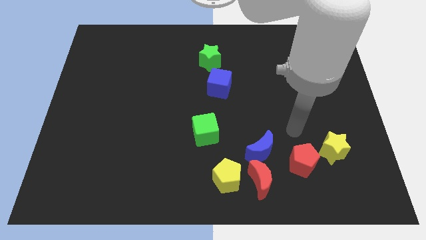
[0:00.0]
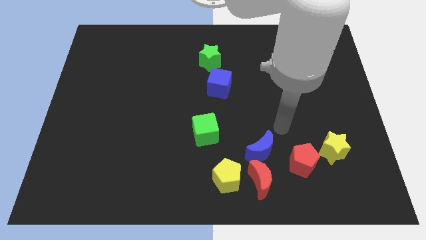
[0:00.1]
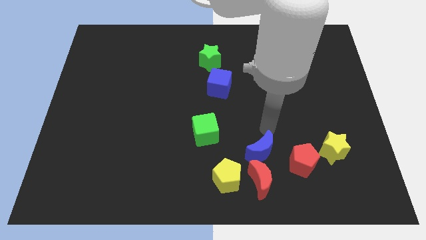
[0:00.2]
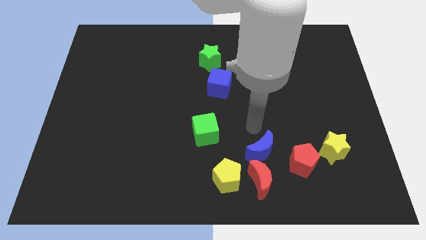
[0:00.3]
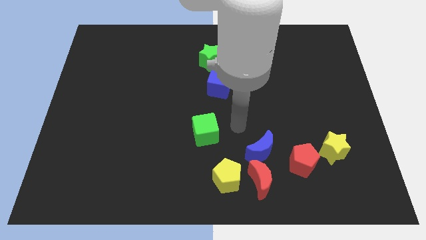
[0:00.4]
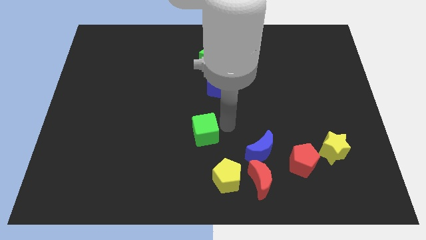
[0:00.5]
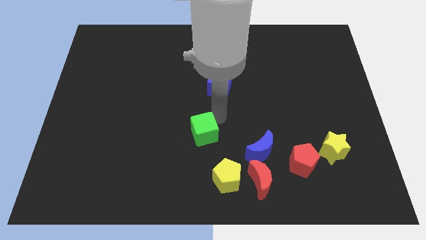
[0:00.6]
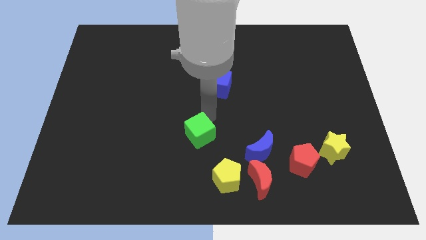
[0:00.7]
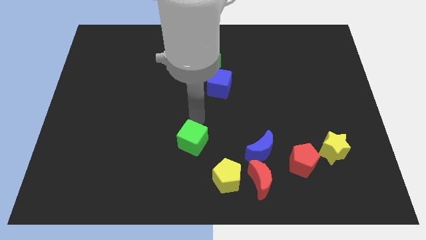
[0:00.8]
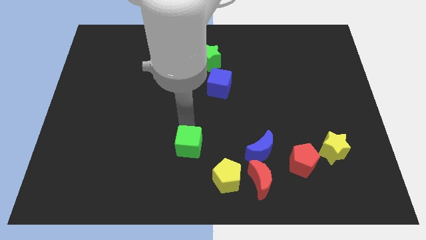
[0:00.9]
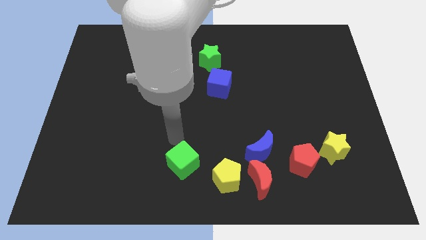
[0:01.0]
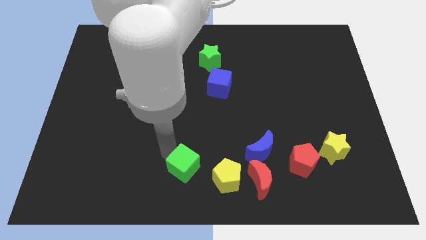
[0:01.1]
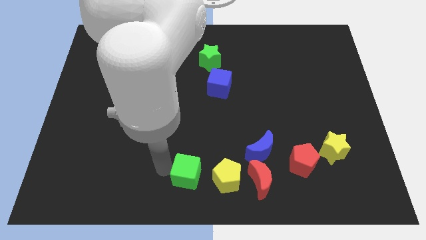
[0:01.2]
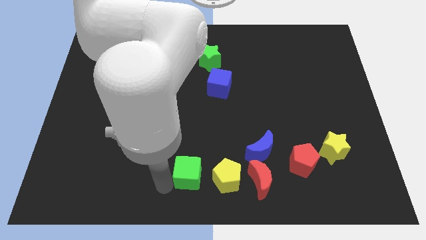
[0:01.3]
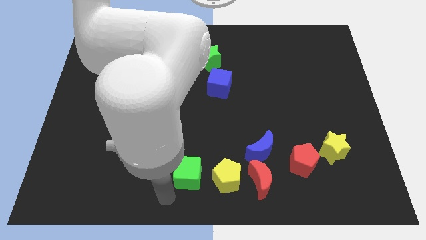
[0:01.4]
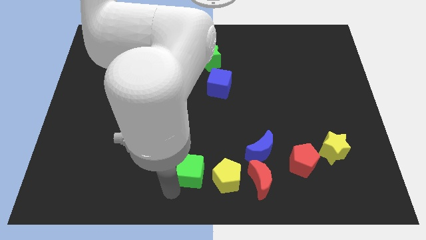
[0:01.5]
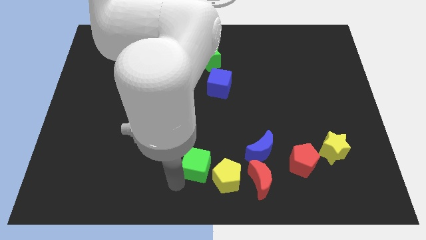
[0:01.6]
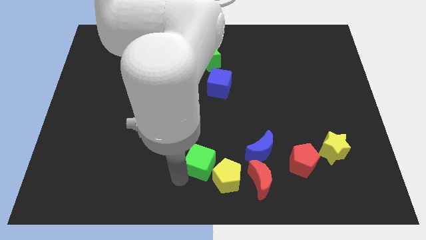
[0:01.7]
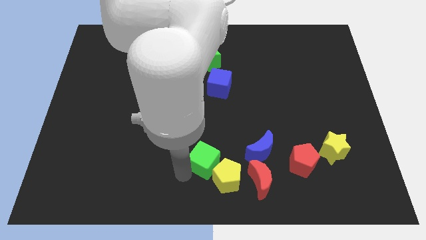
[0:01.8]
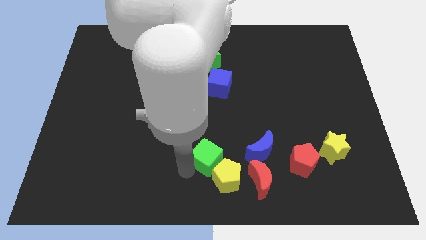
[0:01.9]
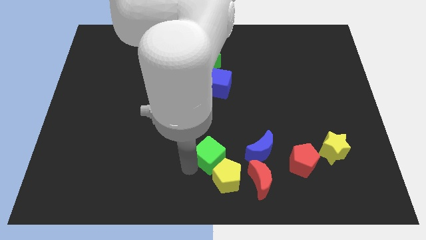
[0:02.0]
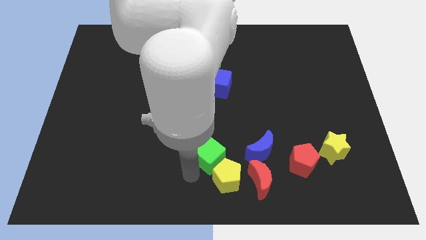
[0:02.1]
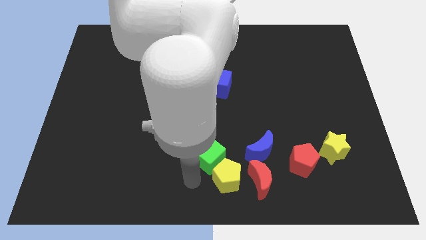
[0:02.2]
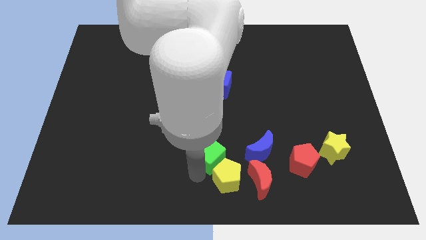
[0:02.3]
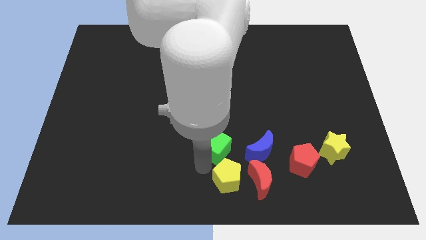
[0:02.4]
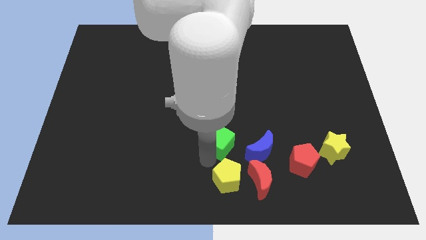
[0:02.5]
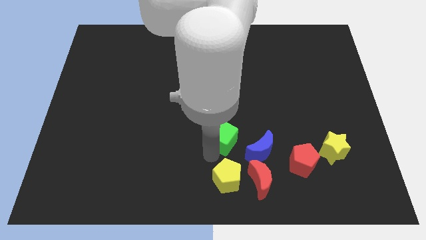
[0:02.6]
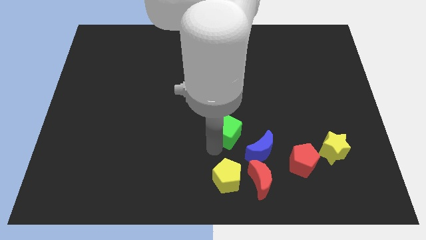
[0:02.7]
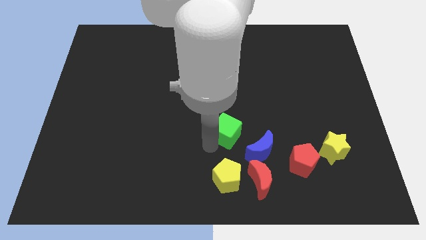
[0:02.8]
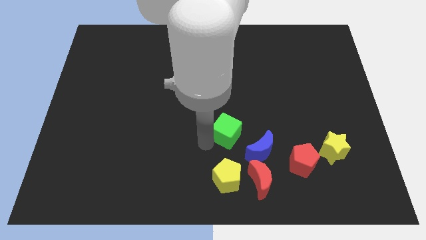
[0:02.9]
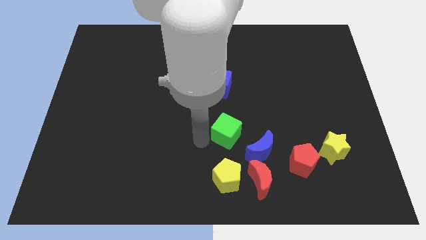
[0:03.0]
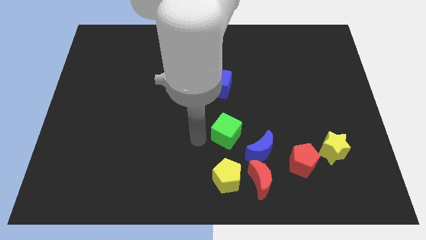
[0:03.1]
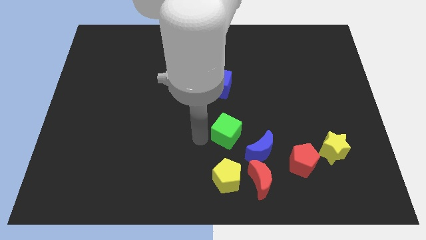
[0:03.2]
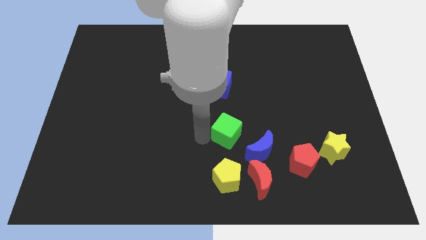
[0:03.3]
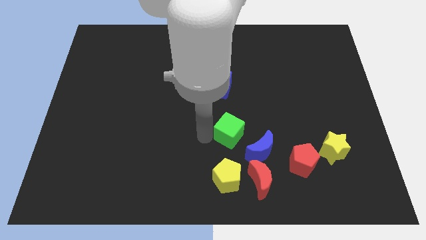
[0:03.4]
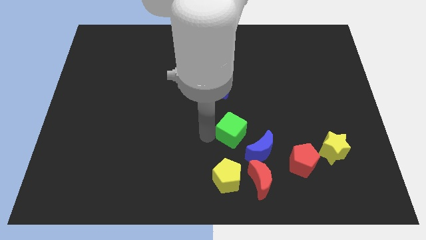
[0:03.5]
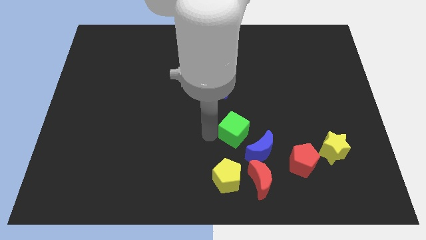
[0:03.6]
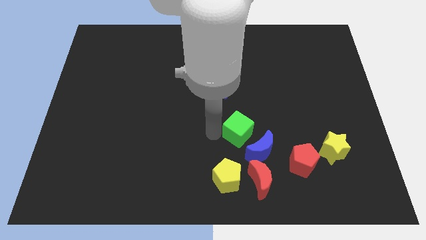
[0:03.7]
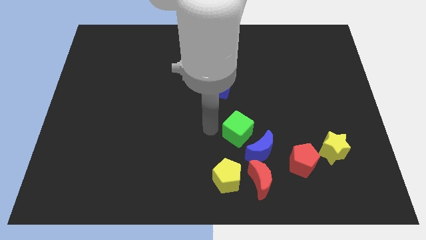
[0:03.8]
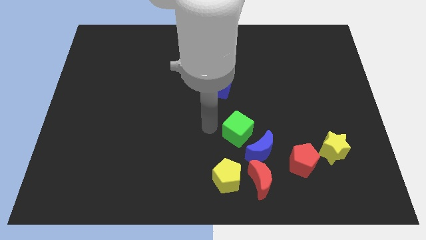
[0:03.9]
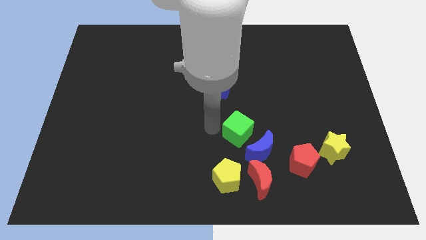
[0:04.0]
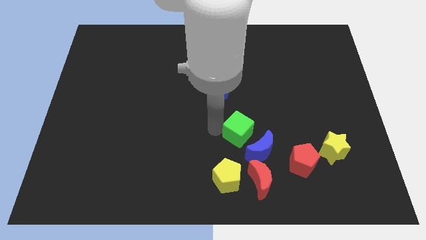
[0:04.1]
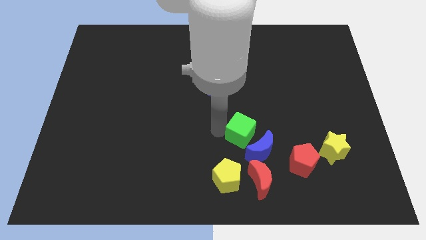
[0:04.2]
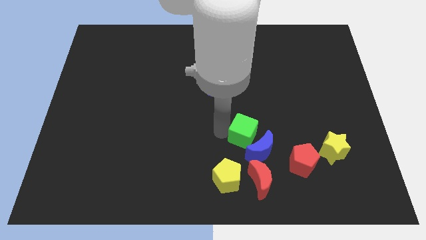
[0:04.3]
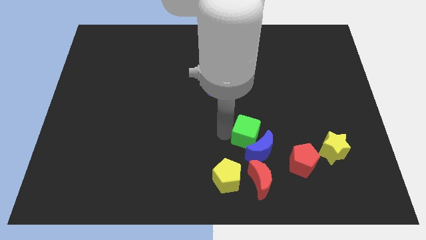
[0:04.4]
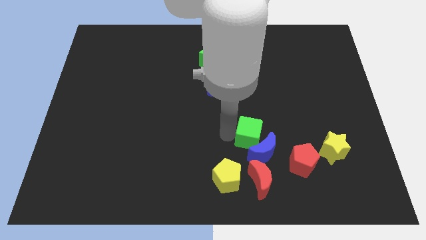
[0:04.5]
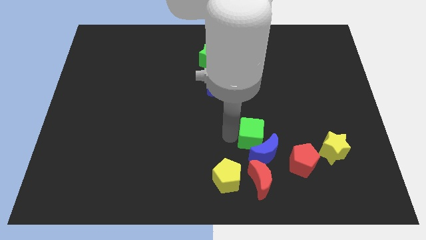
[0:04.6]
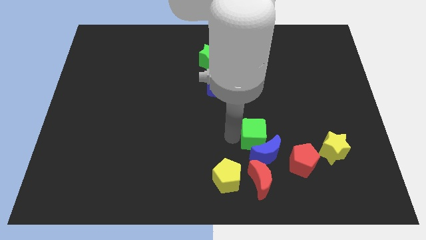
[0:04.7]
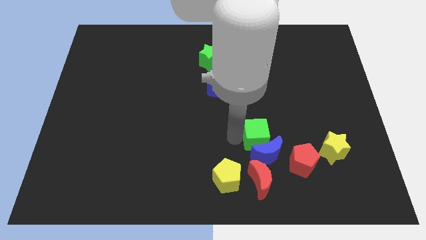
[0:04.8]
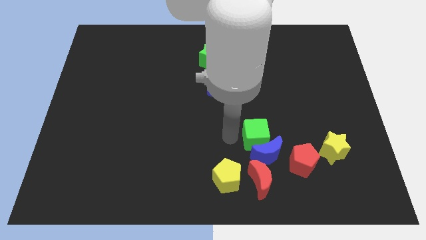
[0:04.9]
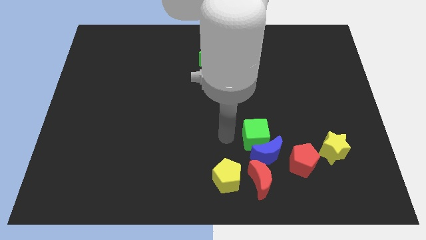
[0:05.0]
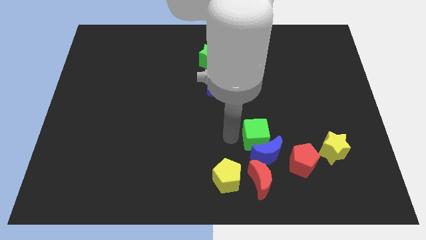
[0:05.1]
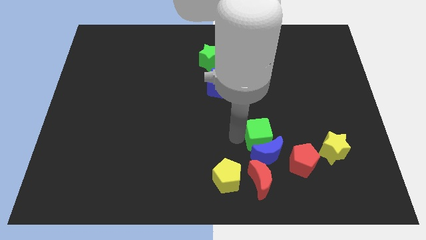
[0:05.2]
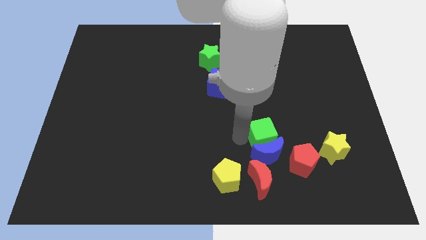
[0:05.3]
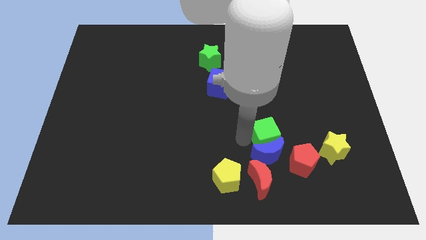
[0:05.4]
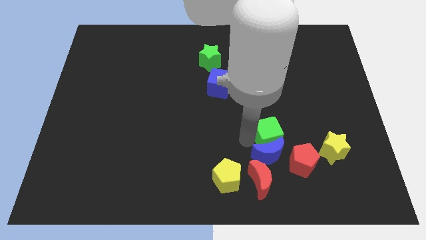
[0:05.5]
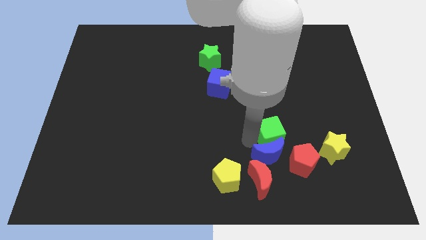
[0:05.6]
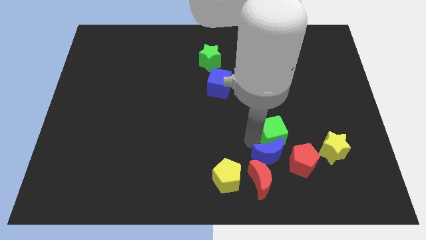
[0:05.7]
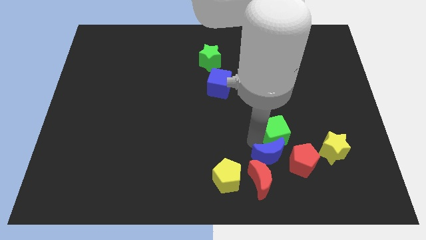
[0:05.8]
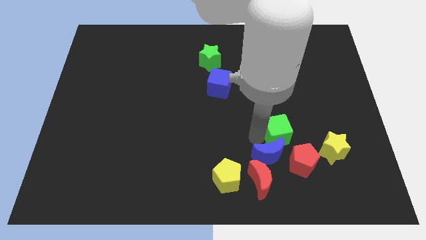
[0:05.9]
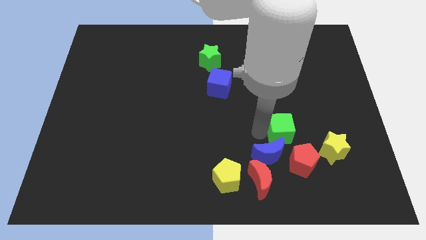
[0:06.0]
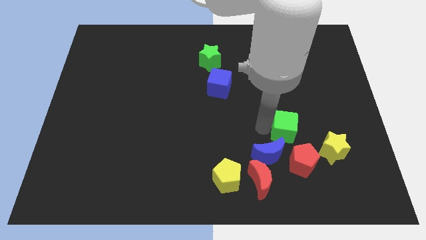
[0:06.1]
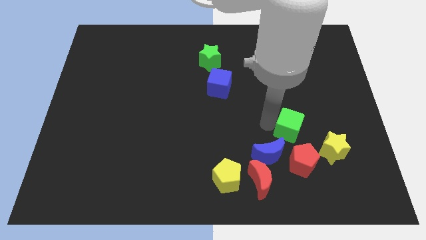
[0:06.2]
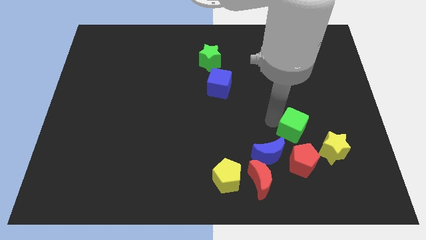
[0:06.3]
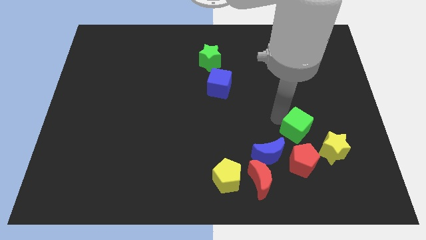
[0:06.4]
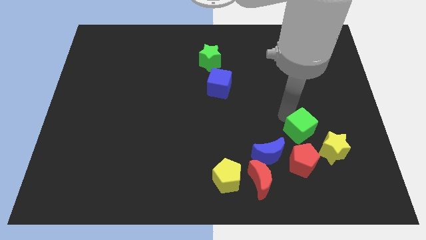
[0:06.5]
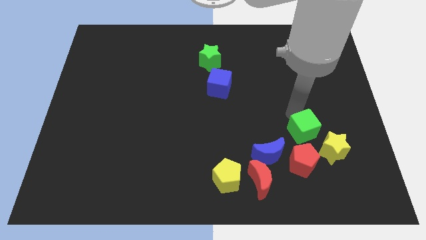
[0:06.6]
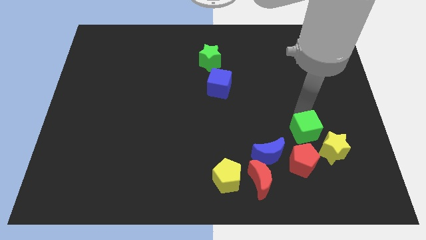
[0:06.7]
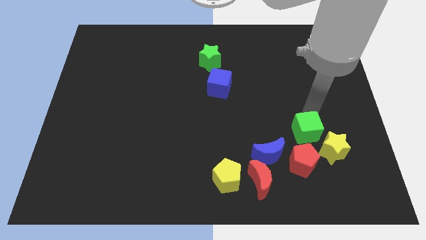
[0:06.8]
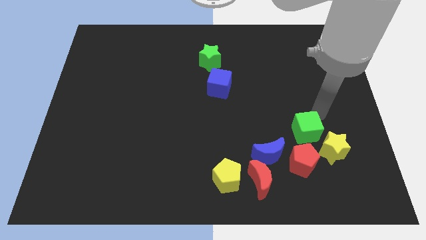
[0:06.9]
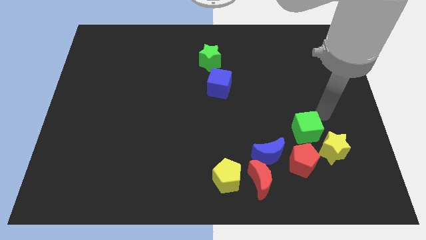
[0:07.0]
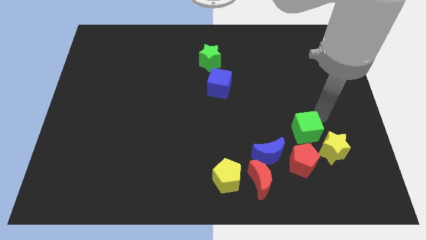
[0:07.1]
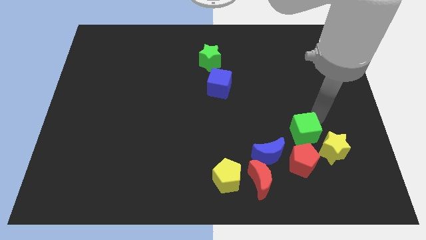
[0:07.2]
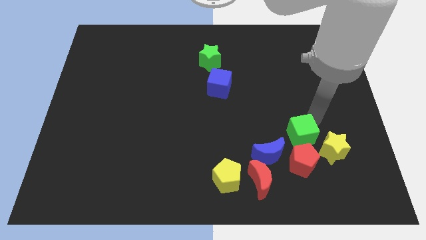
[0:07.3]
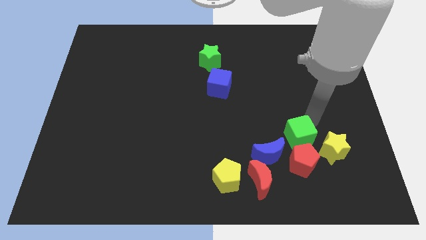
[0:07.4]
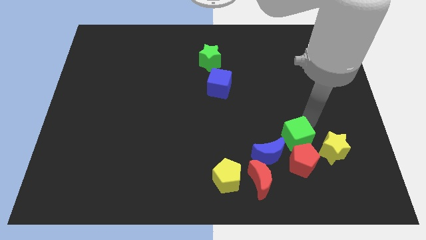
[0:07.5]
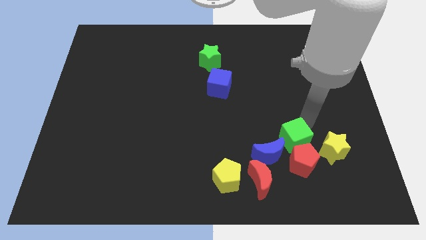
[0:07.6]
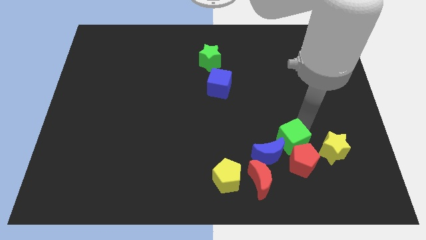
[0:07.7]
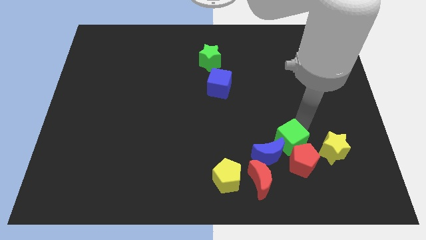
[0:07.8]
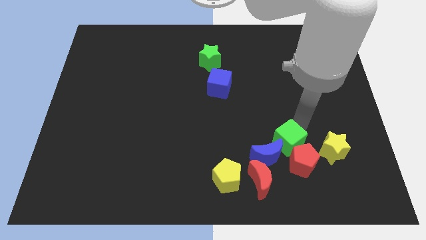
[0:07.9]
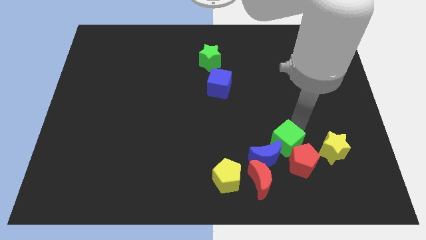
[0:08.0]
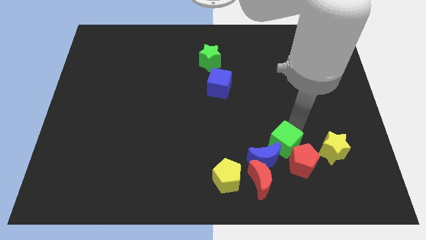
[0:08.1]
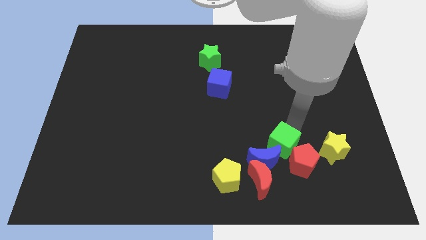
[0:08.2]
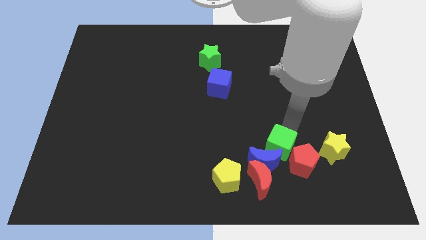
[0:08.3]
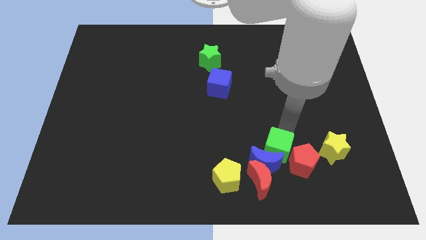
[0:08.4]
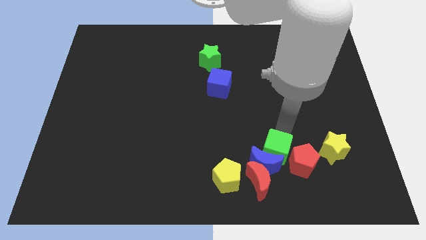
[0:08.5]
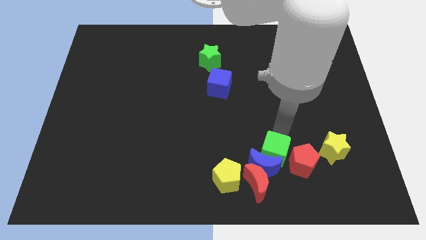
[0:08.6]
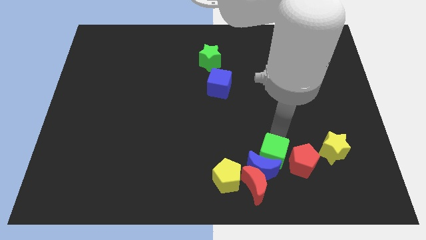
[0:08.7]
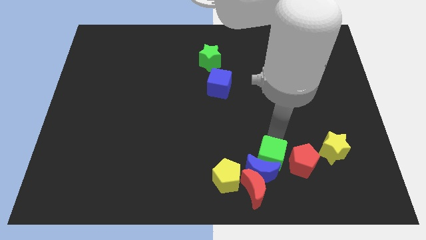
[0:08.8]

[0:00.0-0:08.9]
put the green cube right of the yellow pentagon
